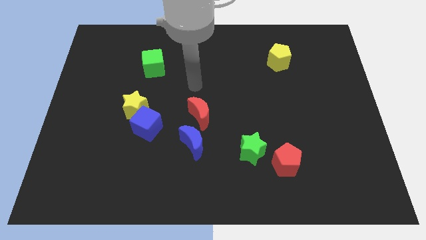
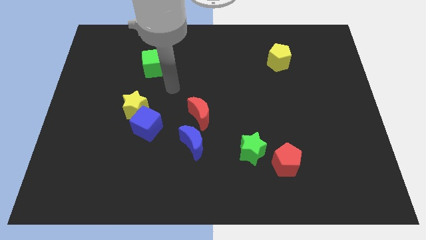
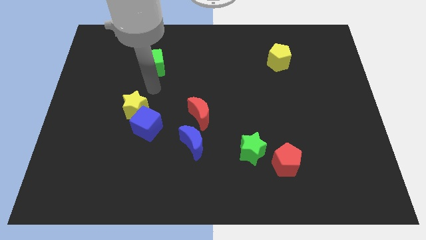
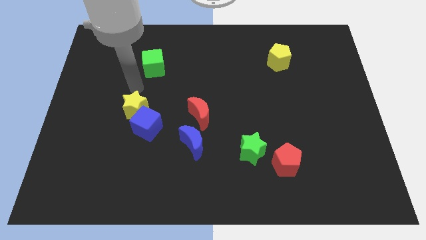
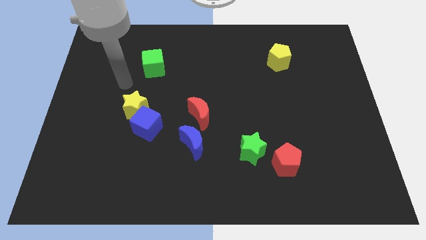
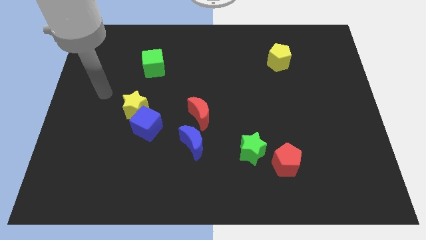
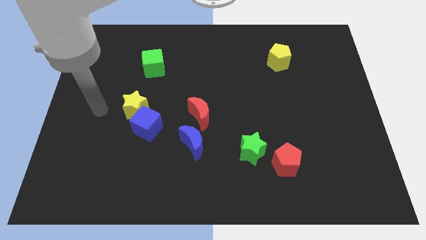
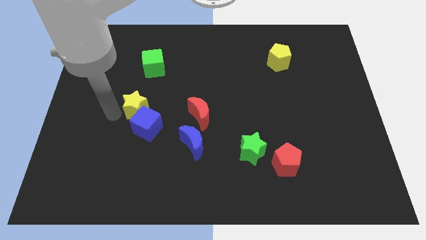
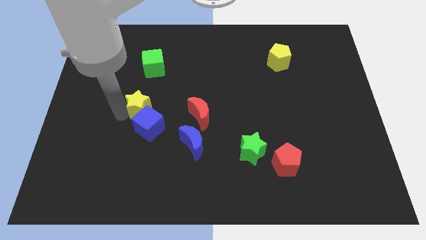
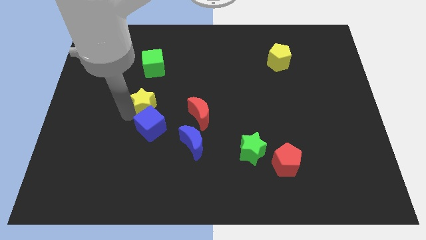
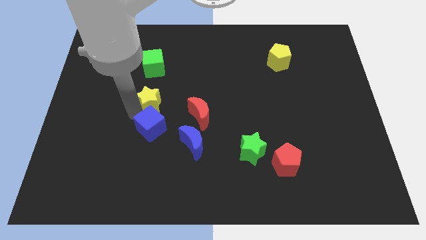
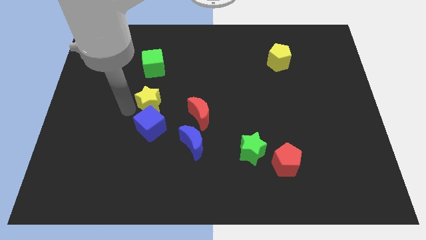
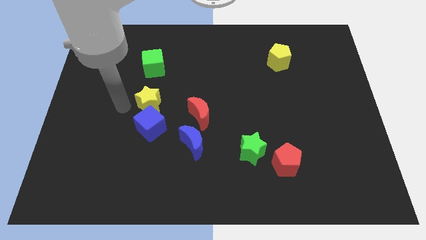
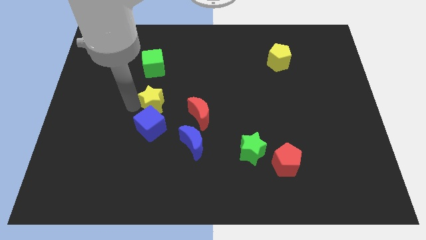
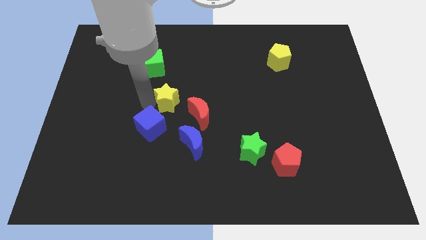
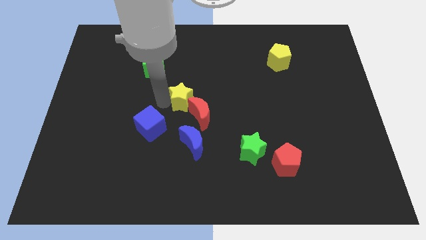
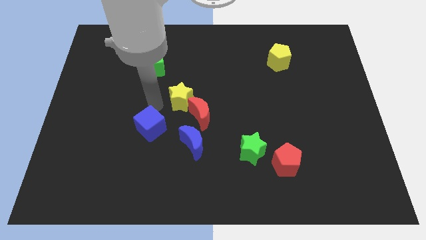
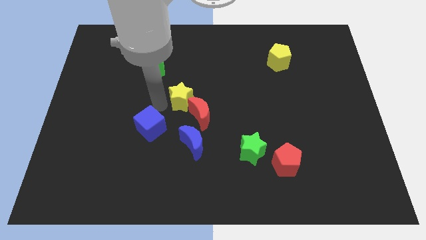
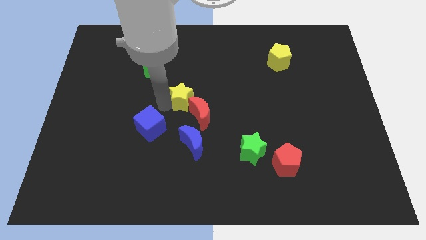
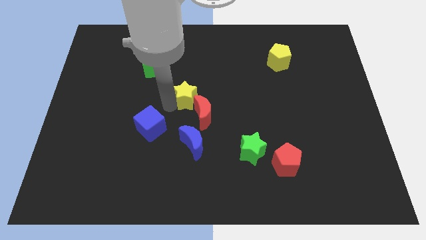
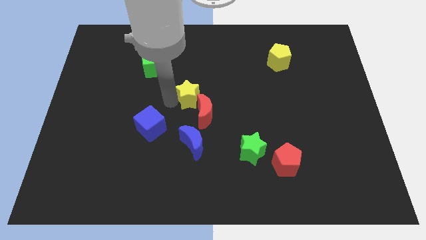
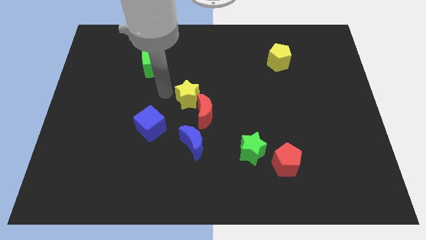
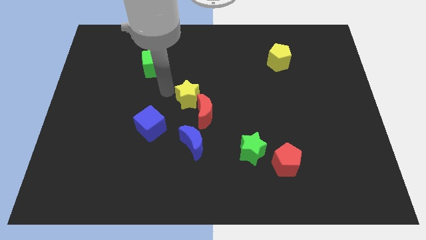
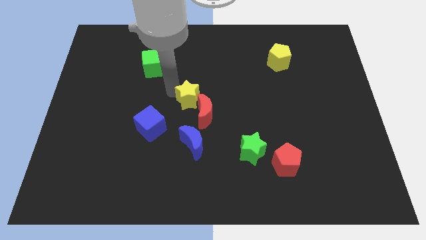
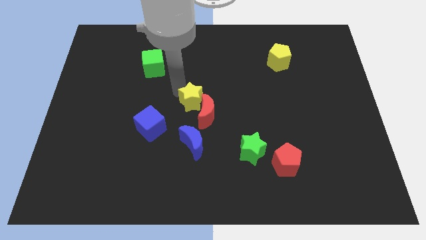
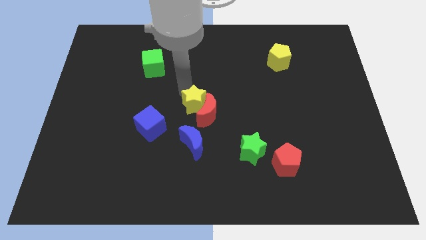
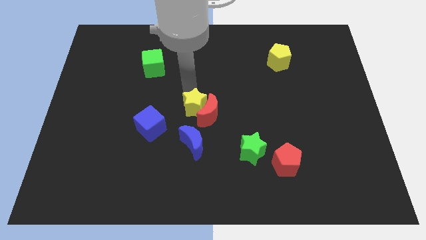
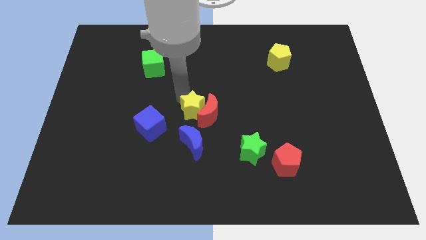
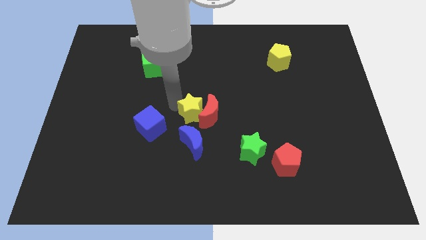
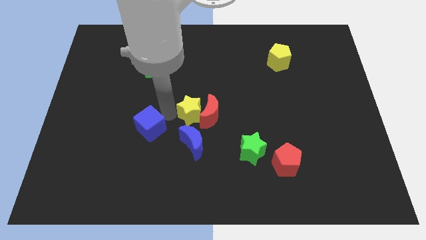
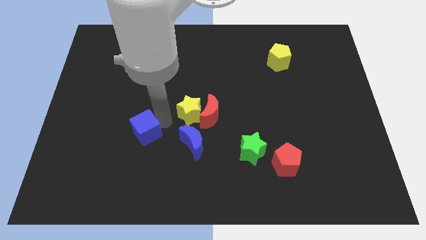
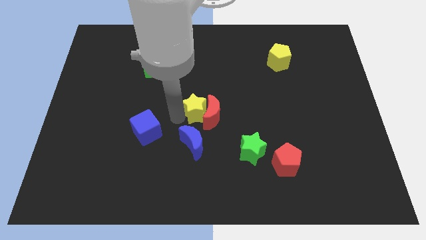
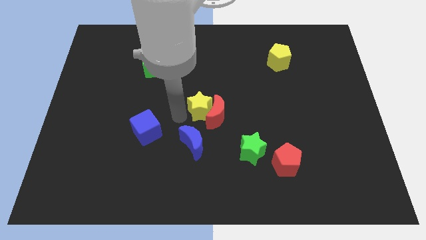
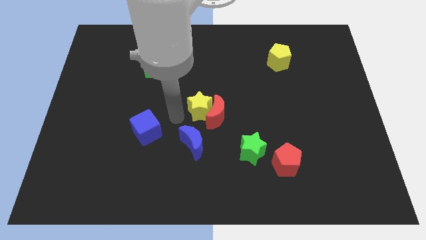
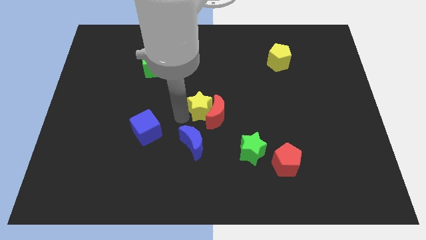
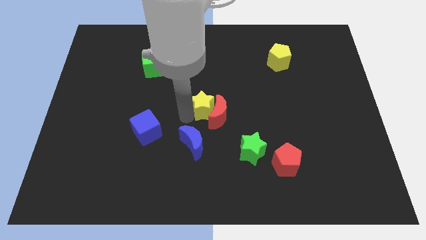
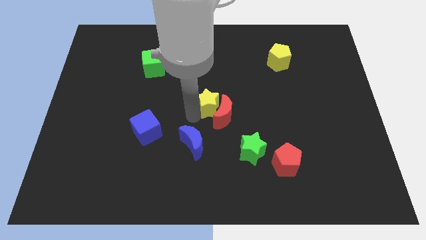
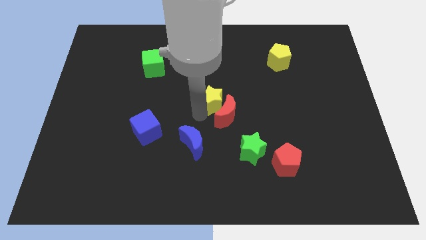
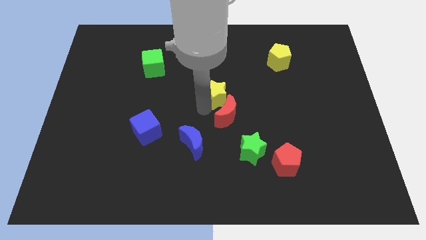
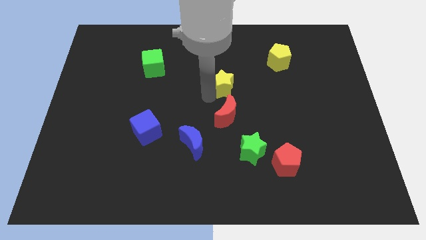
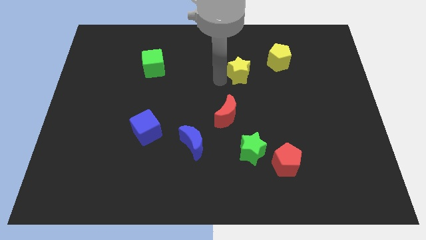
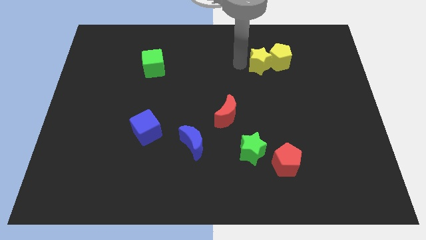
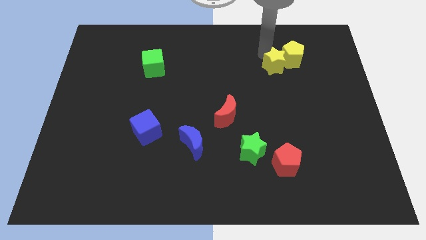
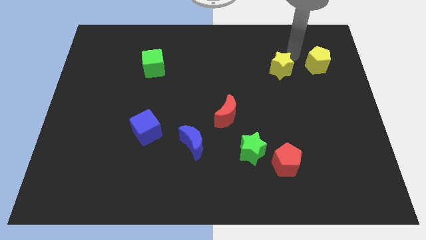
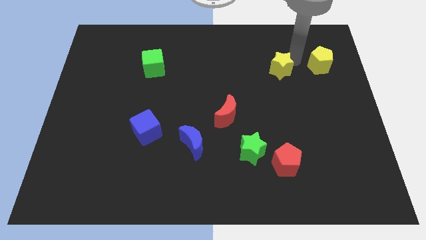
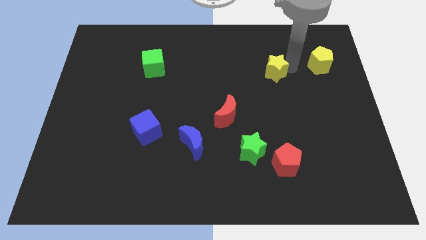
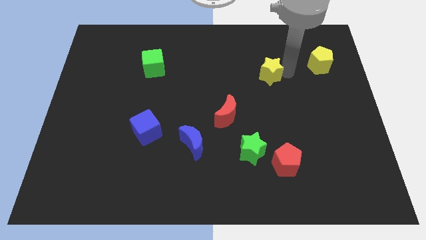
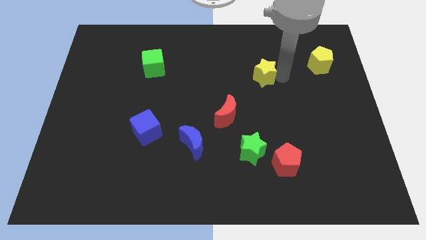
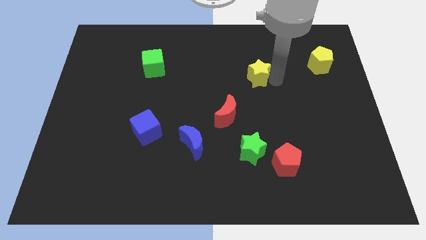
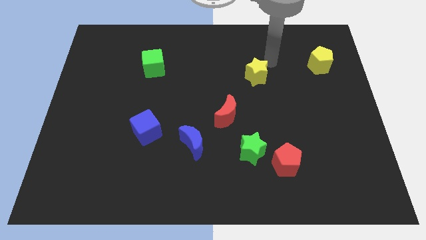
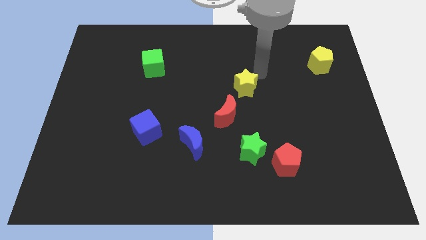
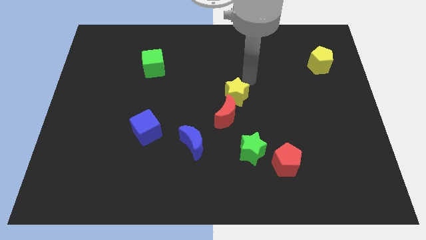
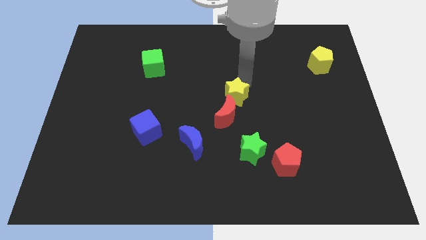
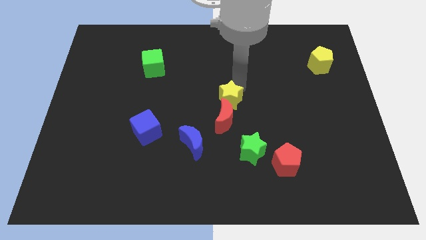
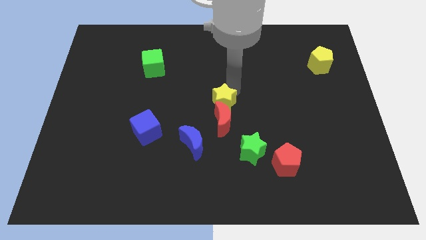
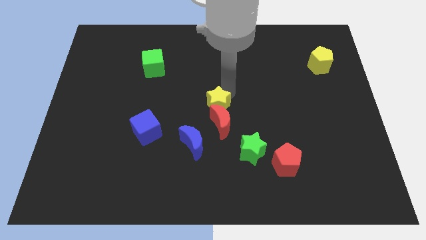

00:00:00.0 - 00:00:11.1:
move the yellow star diagonally up and to the right of the blue moon

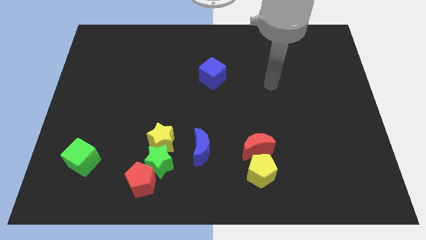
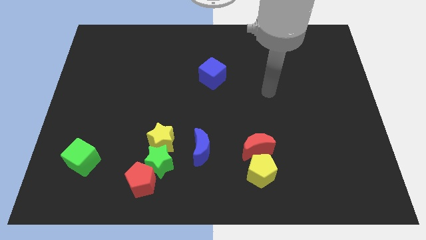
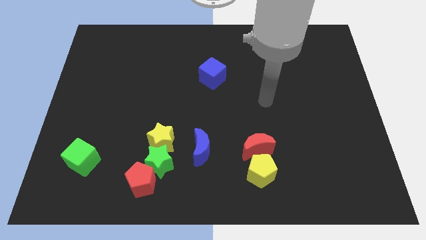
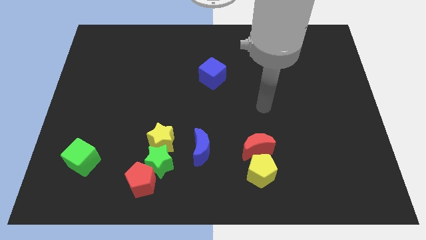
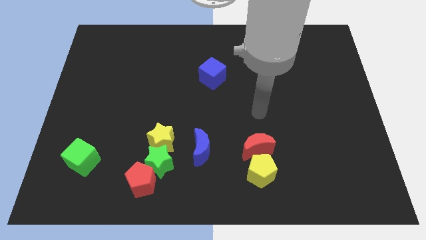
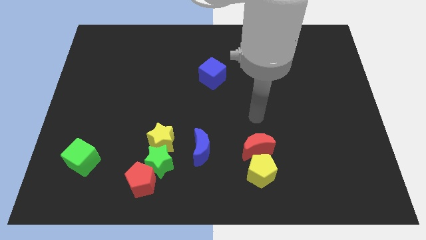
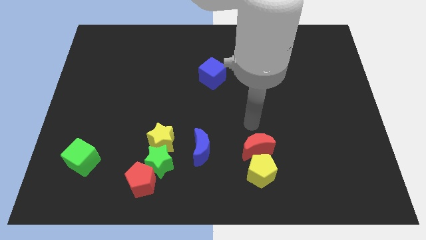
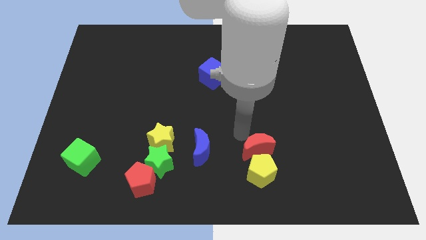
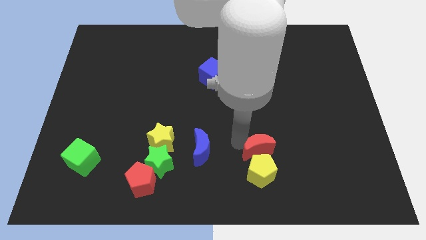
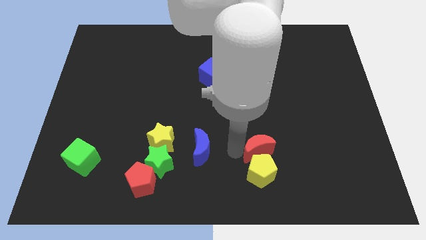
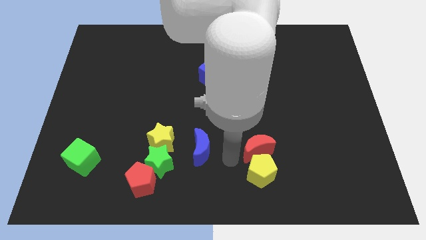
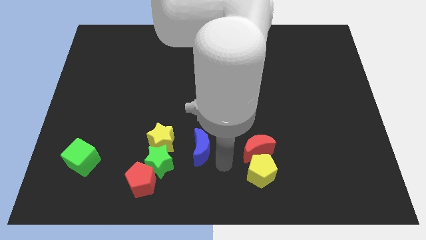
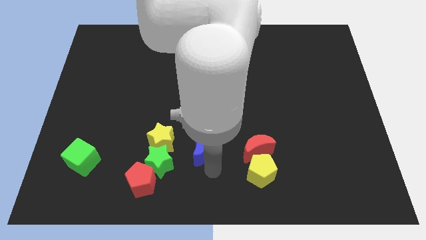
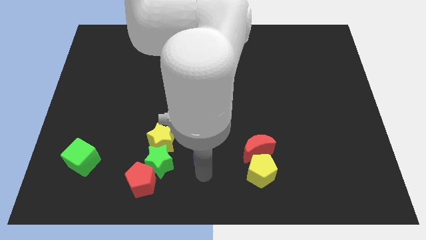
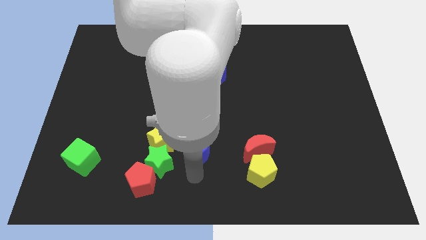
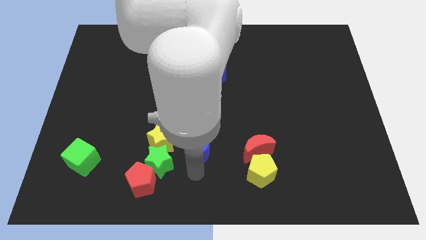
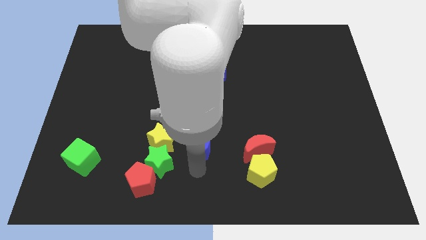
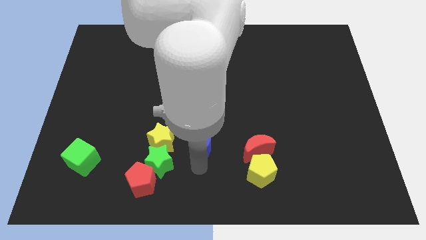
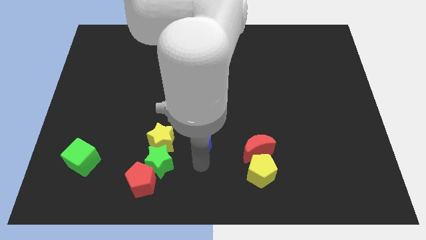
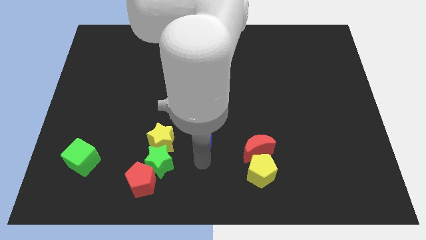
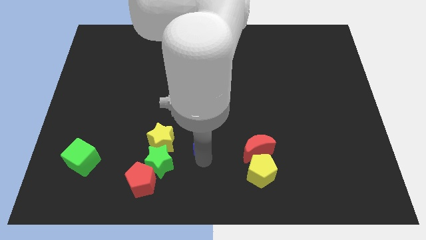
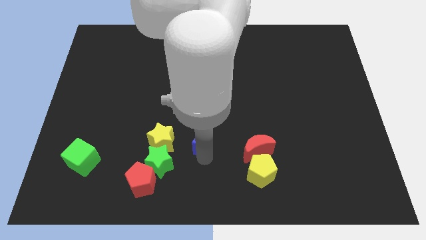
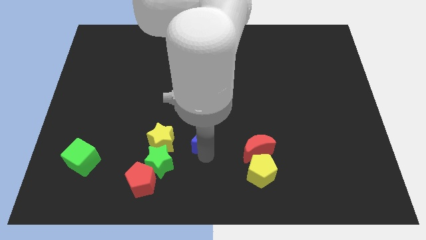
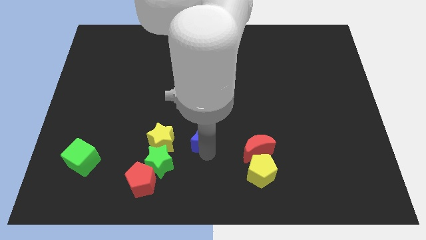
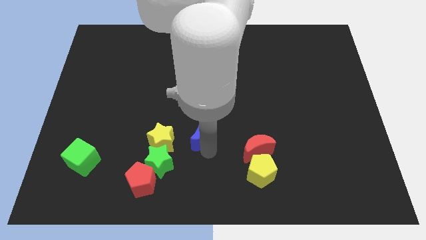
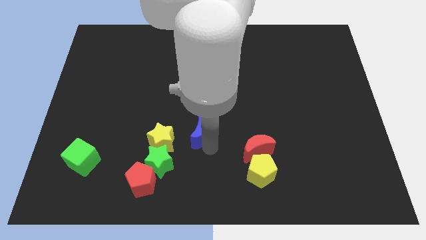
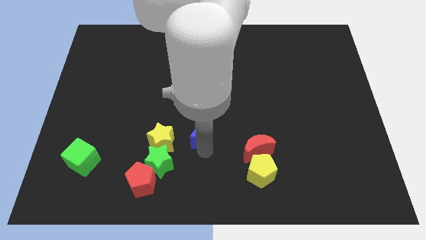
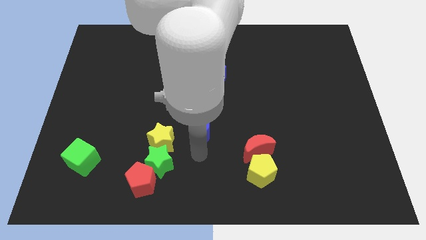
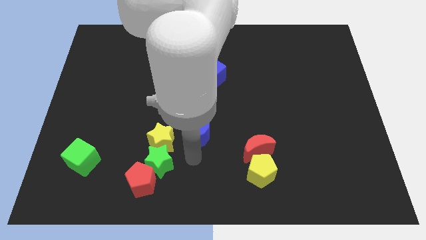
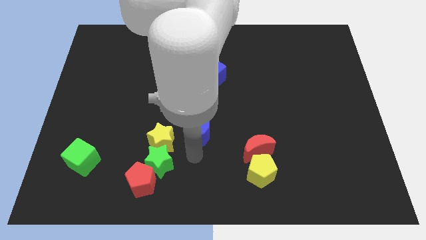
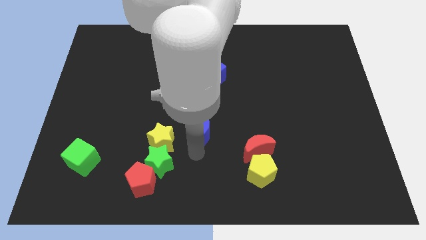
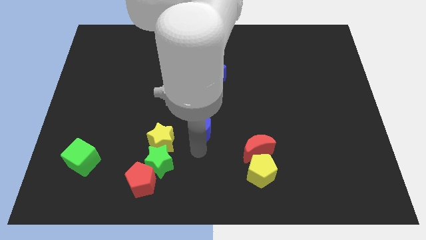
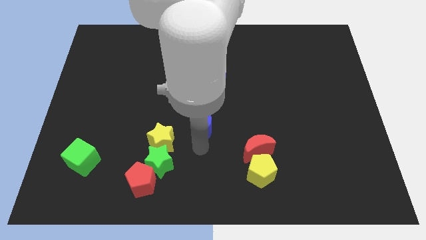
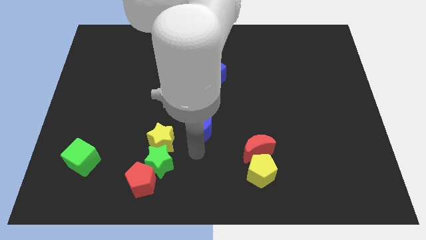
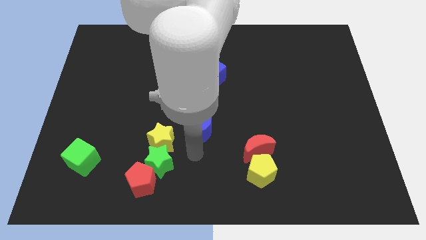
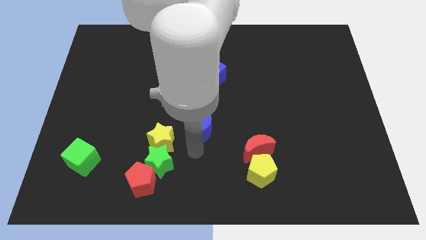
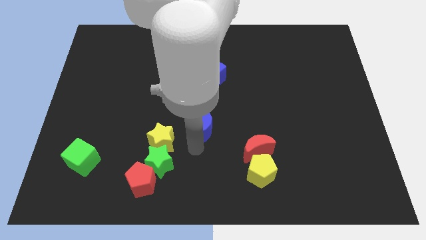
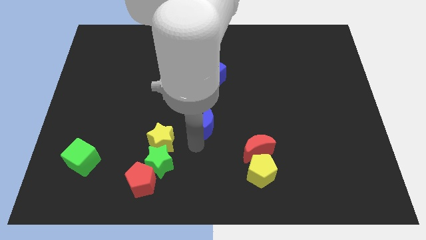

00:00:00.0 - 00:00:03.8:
slide the blue moon to the bottom side of the blue cube
